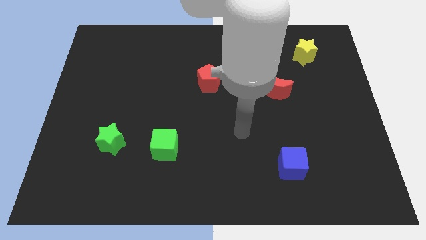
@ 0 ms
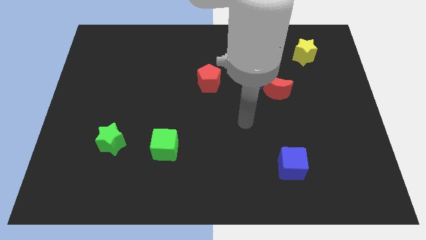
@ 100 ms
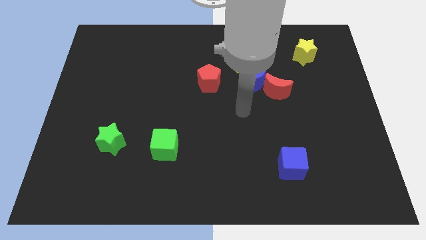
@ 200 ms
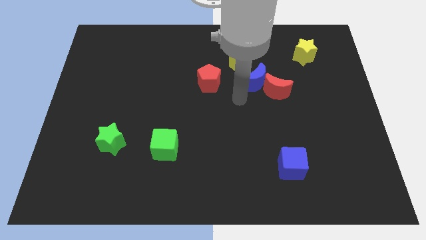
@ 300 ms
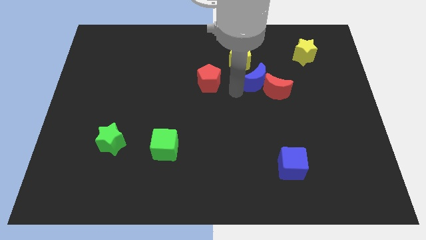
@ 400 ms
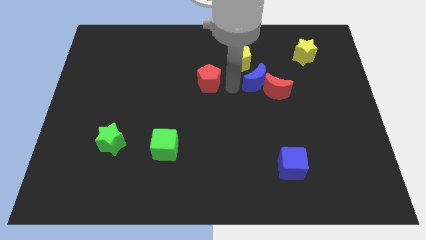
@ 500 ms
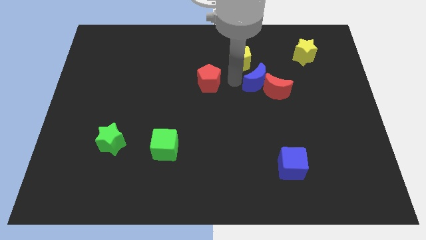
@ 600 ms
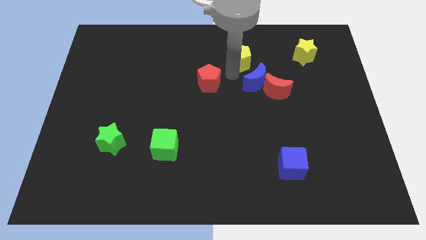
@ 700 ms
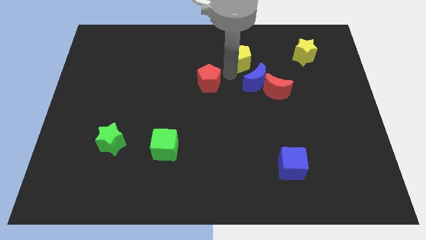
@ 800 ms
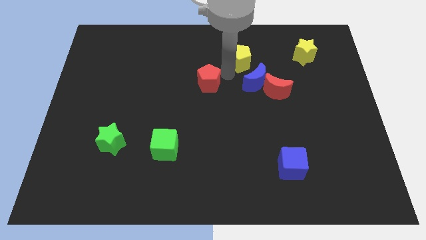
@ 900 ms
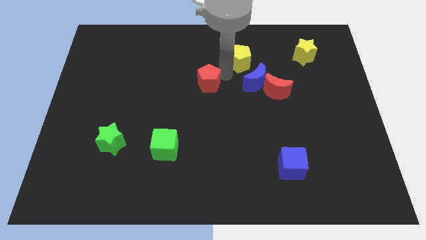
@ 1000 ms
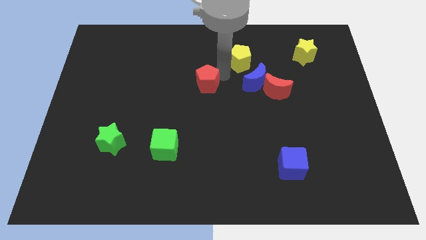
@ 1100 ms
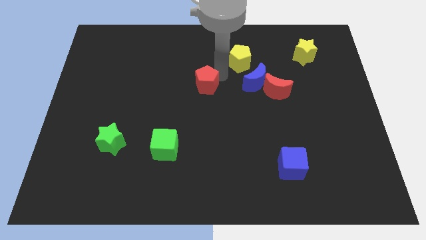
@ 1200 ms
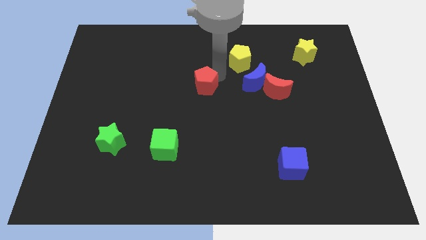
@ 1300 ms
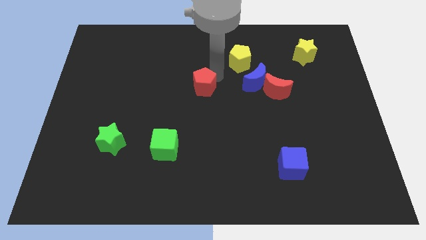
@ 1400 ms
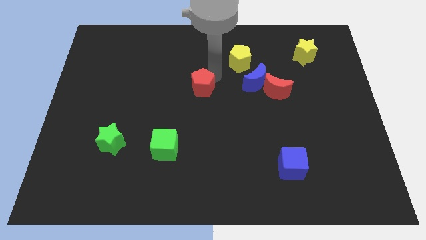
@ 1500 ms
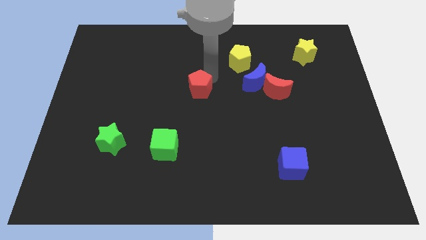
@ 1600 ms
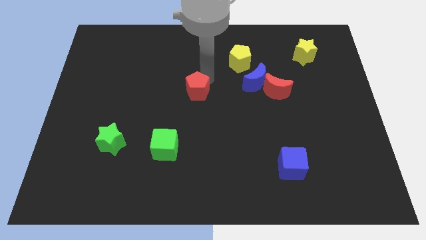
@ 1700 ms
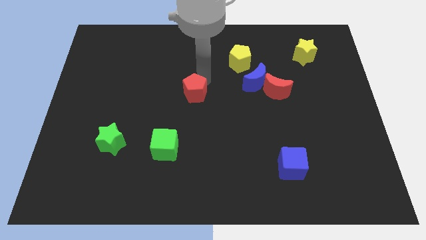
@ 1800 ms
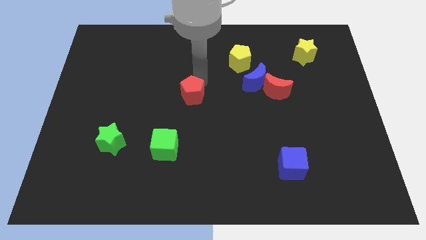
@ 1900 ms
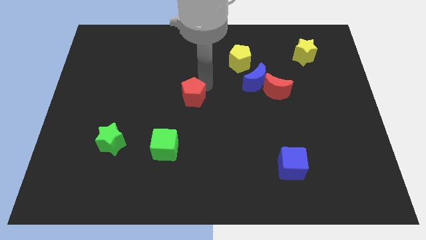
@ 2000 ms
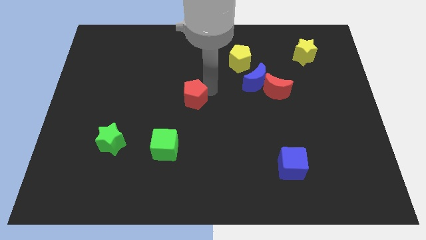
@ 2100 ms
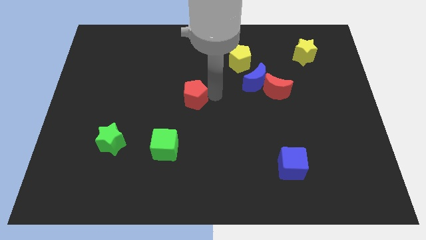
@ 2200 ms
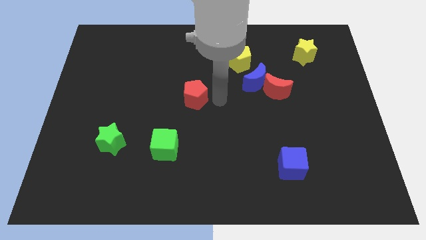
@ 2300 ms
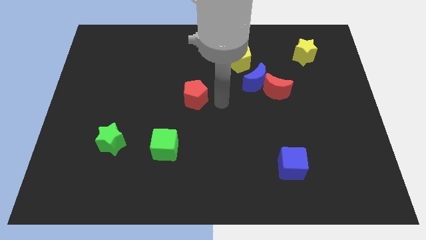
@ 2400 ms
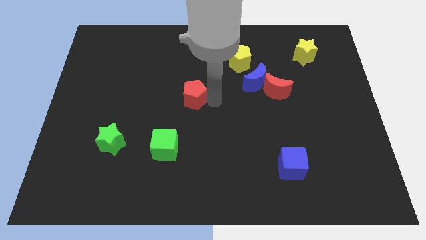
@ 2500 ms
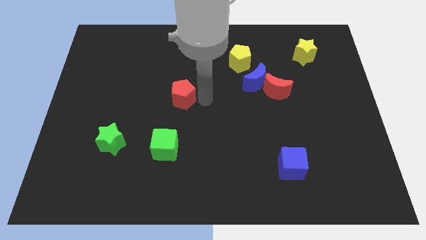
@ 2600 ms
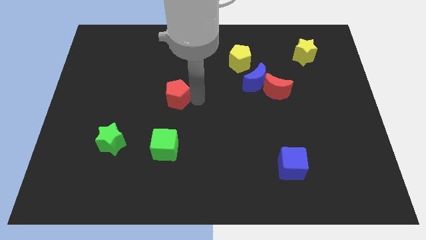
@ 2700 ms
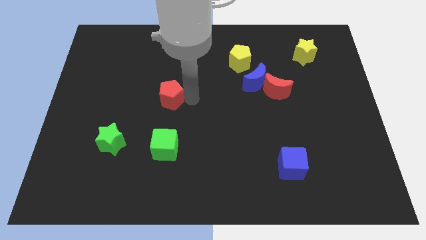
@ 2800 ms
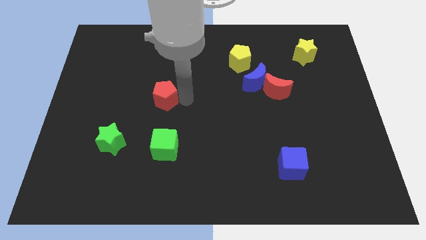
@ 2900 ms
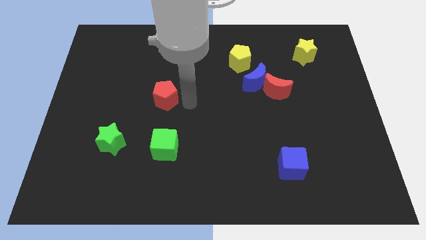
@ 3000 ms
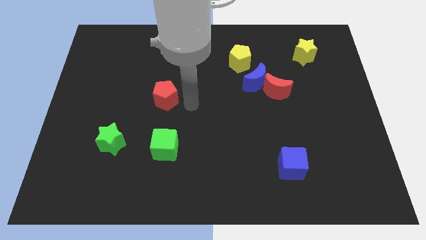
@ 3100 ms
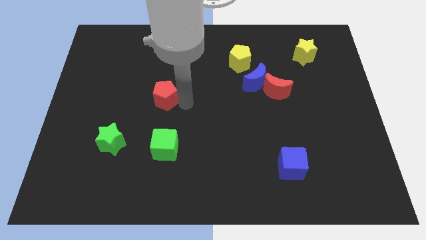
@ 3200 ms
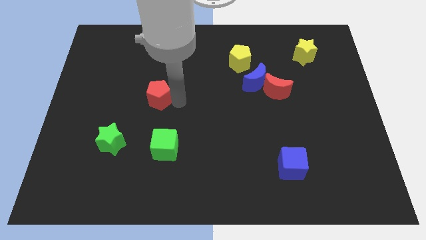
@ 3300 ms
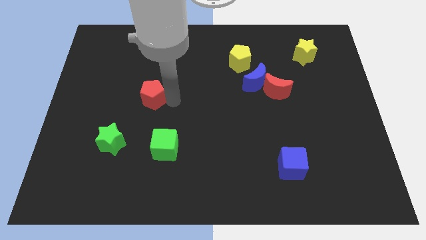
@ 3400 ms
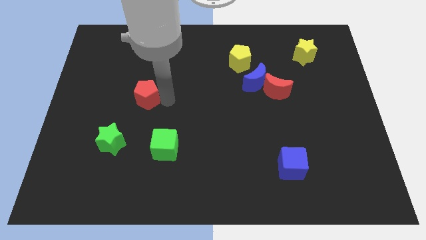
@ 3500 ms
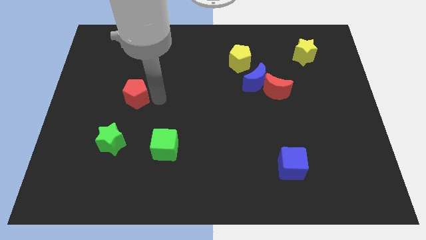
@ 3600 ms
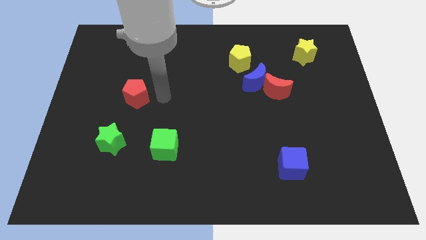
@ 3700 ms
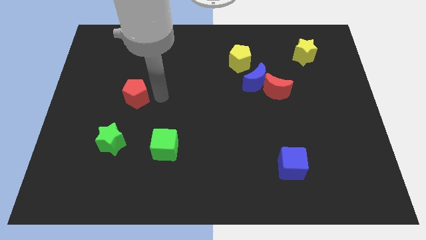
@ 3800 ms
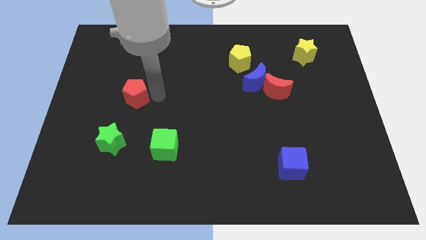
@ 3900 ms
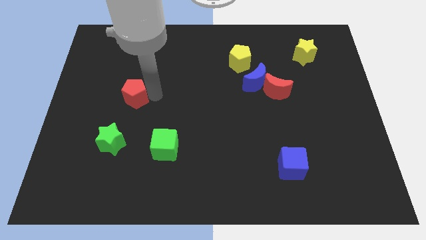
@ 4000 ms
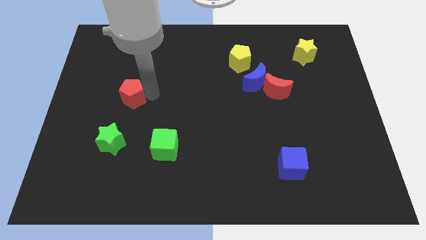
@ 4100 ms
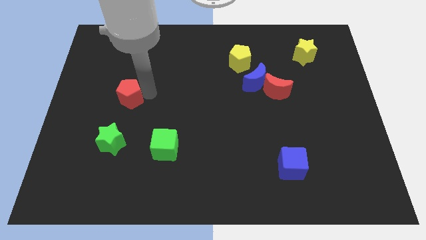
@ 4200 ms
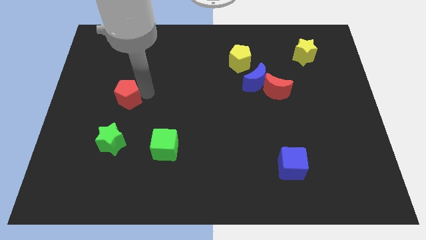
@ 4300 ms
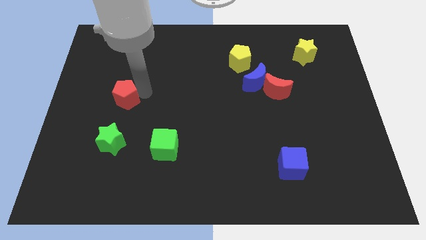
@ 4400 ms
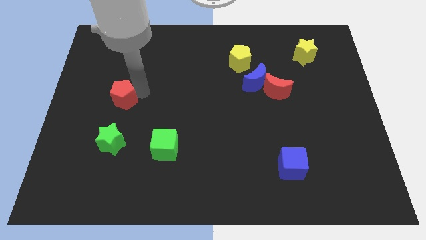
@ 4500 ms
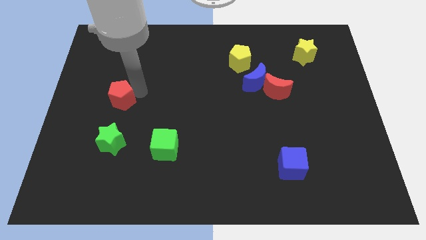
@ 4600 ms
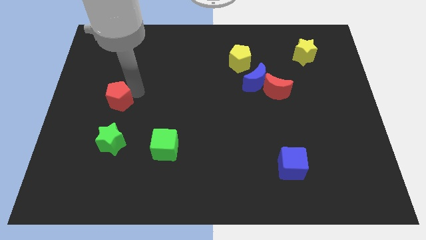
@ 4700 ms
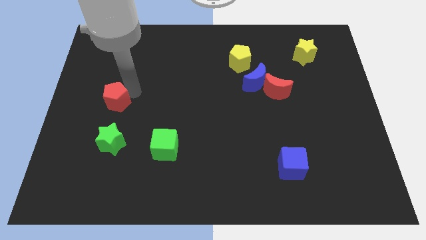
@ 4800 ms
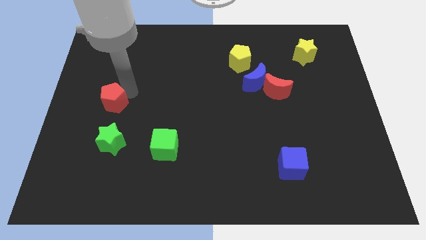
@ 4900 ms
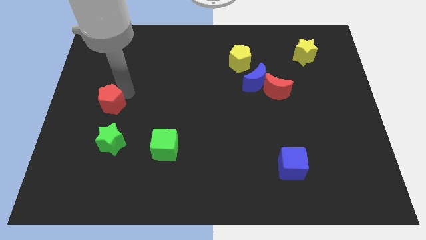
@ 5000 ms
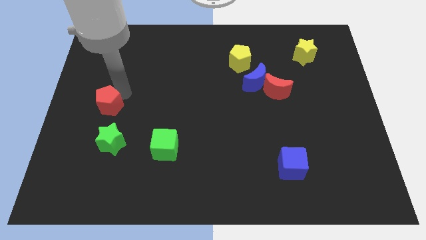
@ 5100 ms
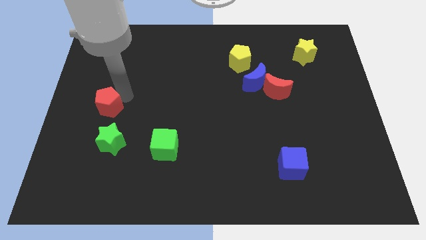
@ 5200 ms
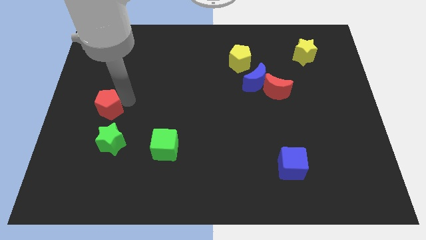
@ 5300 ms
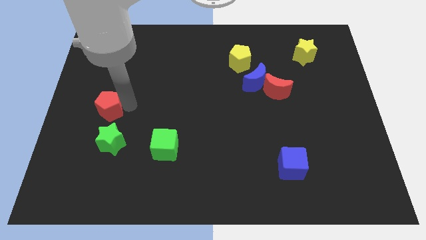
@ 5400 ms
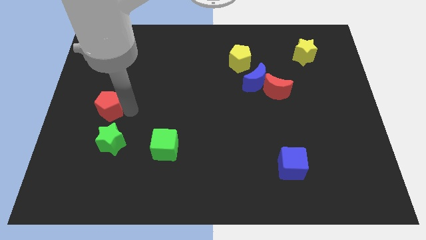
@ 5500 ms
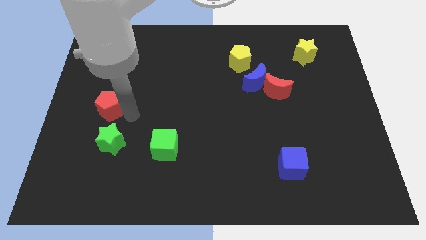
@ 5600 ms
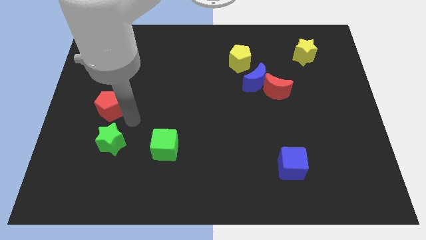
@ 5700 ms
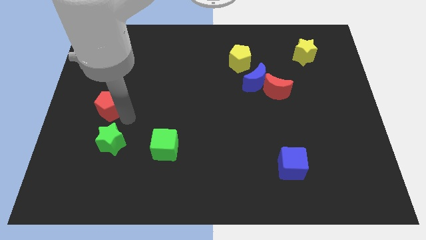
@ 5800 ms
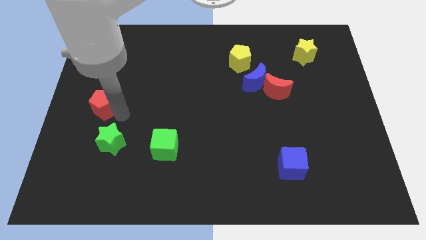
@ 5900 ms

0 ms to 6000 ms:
put the red pentagon to the left side of the board
